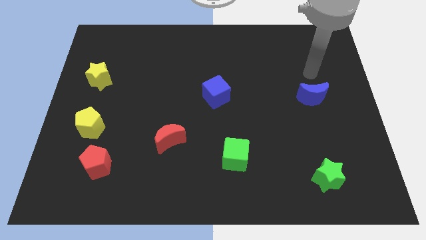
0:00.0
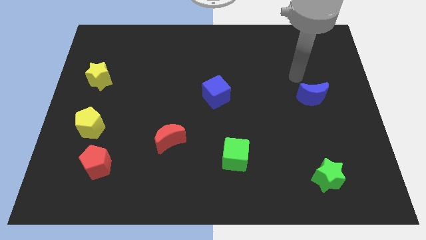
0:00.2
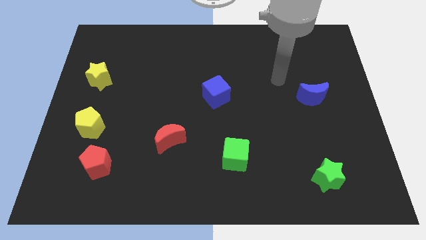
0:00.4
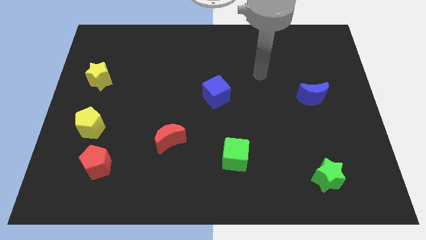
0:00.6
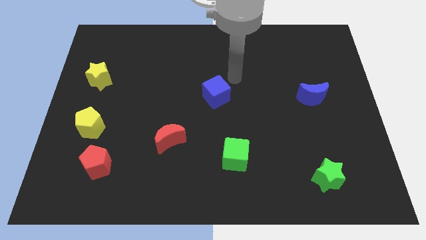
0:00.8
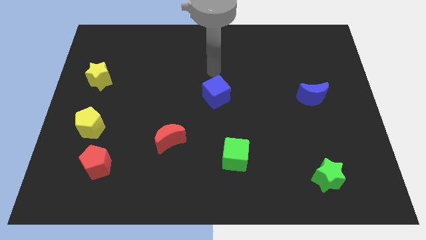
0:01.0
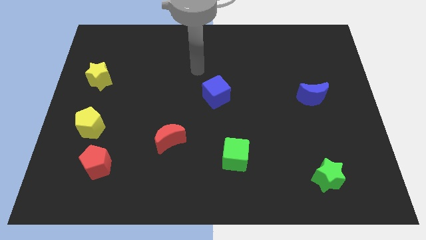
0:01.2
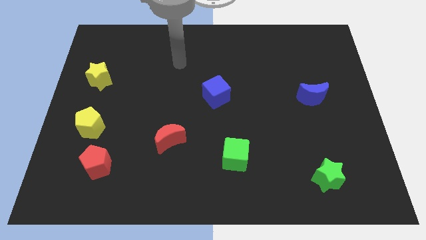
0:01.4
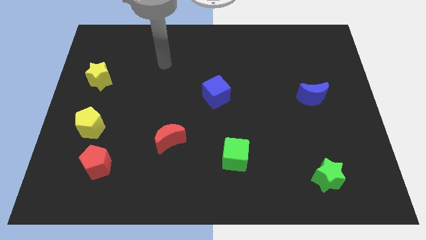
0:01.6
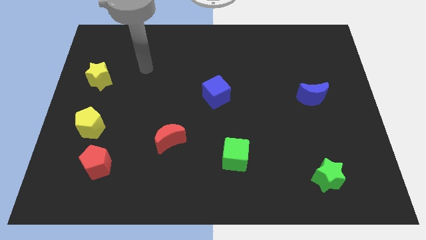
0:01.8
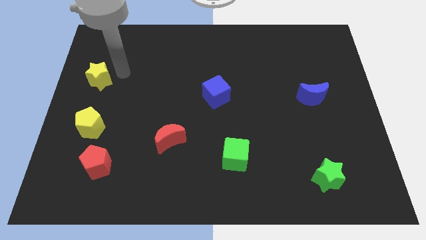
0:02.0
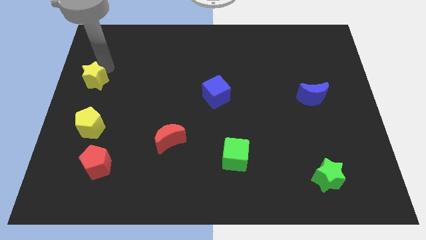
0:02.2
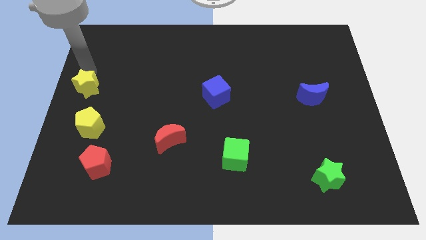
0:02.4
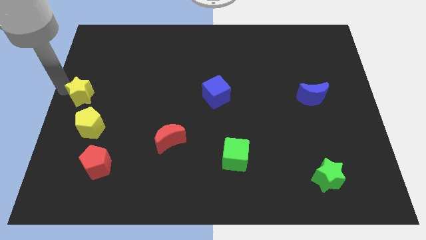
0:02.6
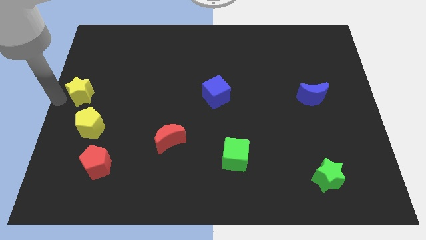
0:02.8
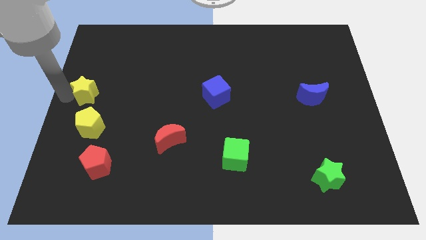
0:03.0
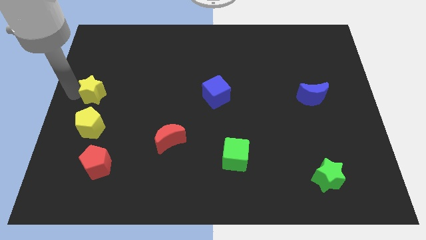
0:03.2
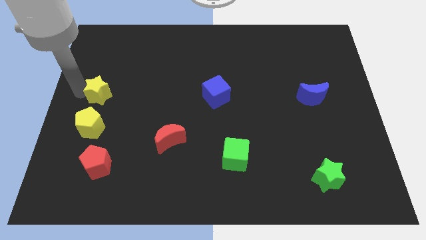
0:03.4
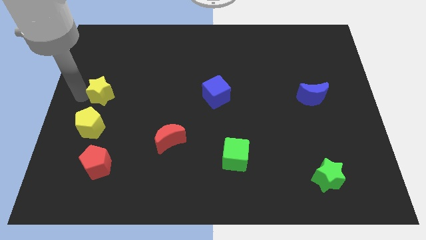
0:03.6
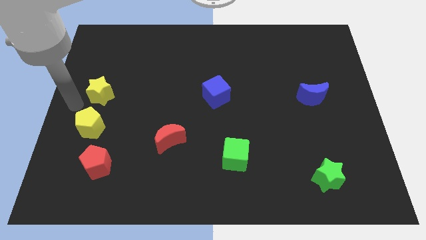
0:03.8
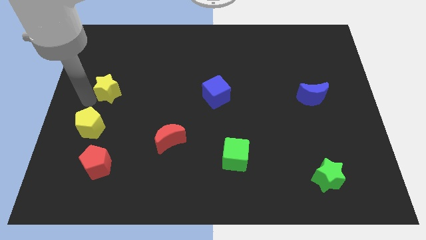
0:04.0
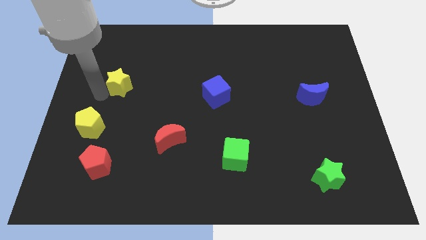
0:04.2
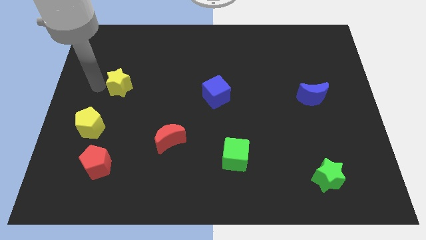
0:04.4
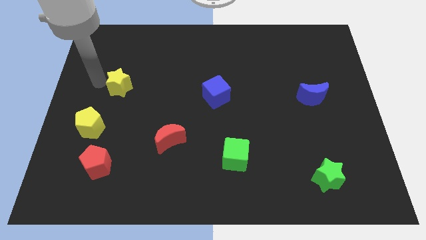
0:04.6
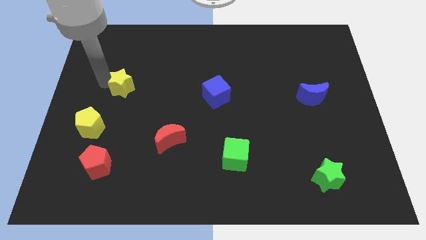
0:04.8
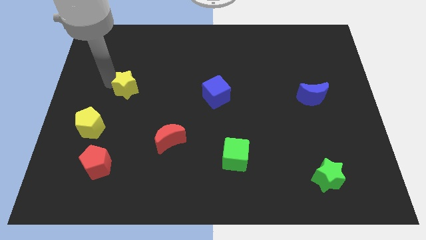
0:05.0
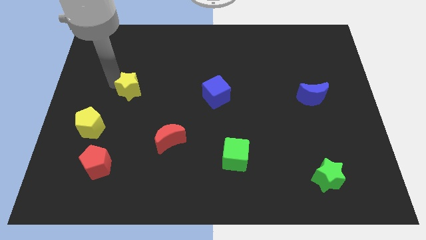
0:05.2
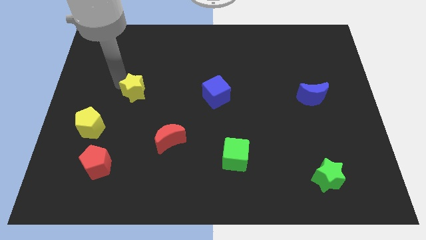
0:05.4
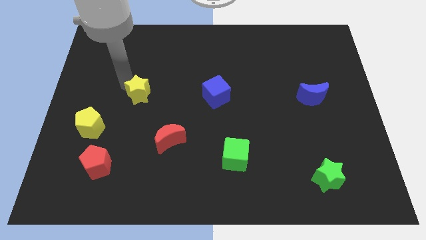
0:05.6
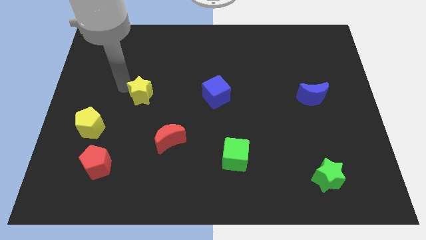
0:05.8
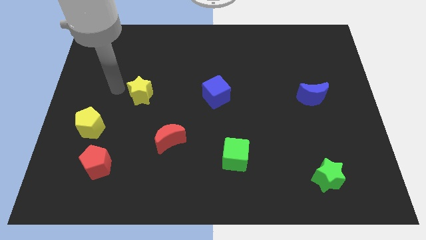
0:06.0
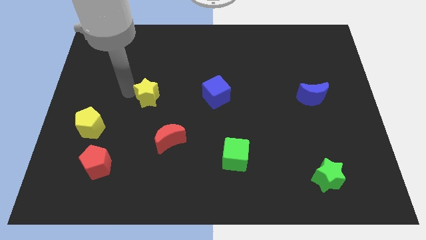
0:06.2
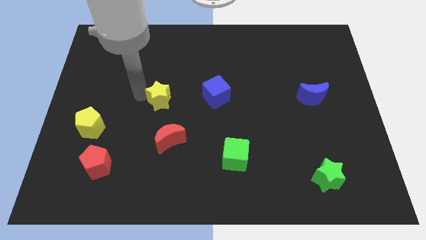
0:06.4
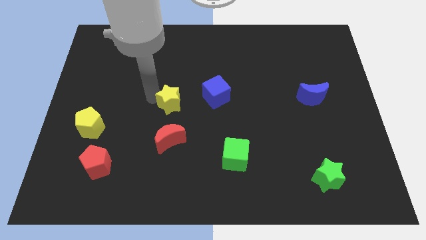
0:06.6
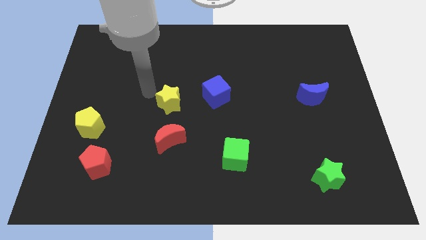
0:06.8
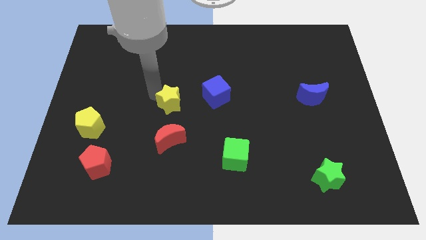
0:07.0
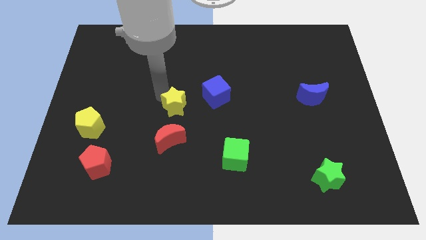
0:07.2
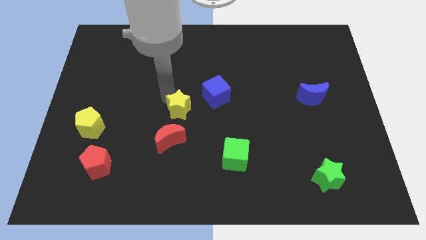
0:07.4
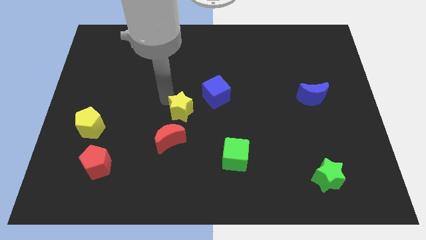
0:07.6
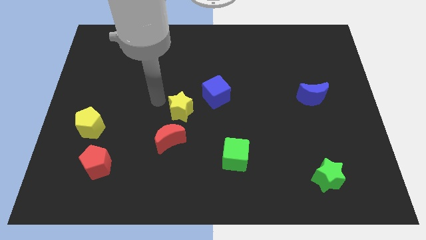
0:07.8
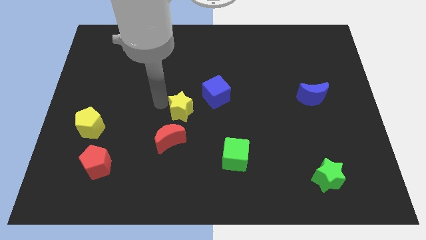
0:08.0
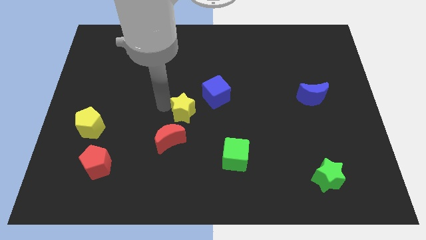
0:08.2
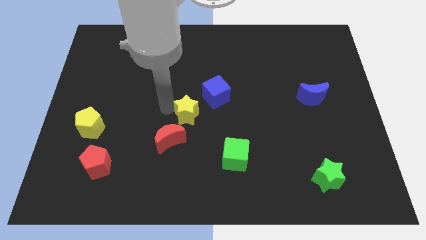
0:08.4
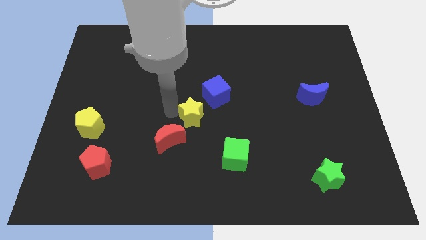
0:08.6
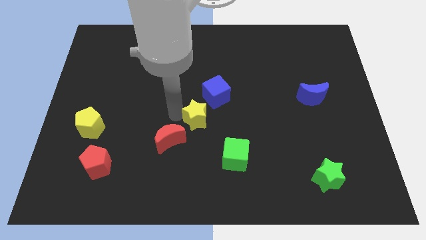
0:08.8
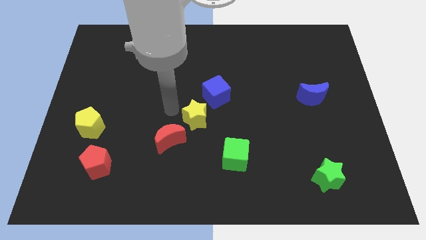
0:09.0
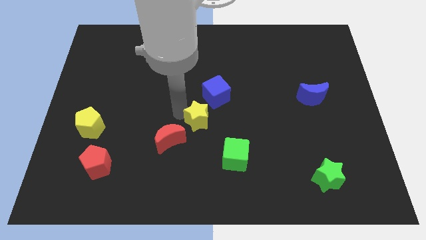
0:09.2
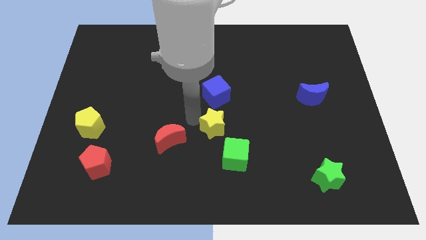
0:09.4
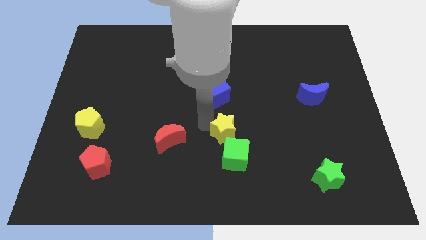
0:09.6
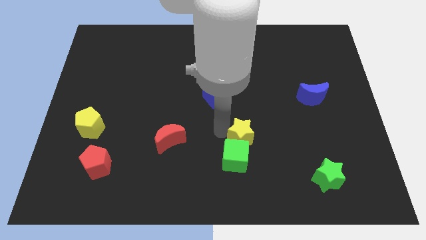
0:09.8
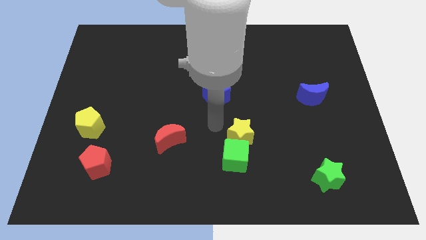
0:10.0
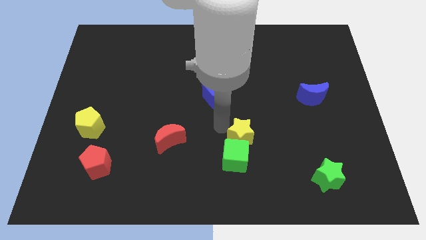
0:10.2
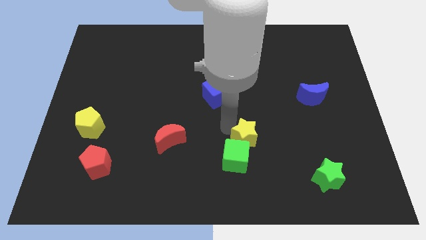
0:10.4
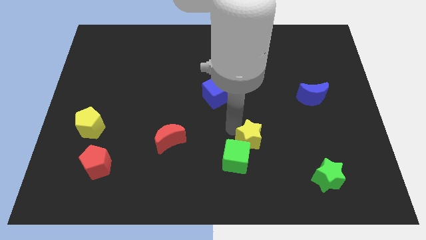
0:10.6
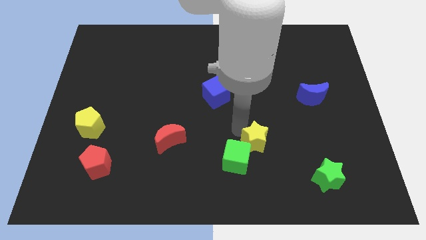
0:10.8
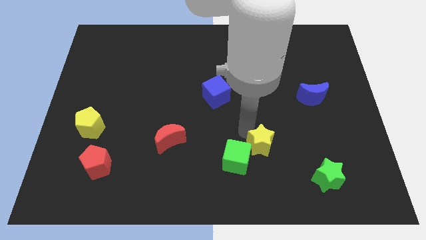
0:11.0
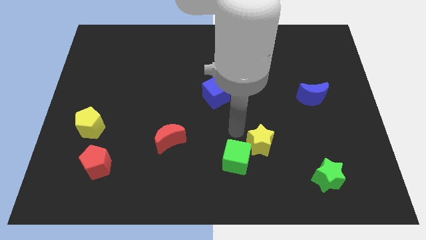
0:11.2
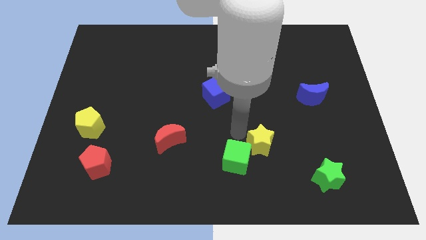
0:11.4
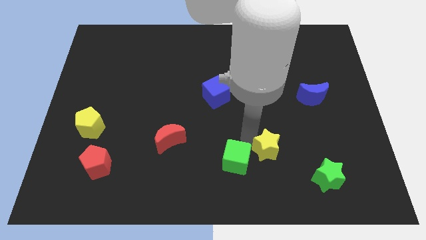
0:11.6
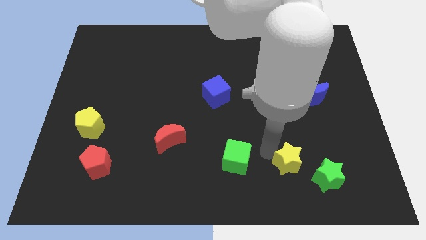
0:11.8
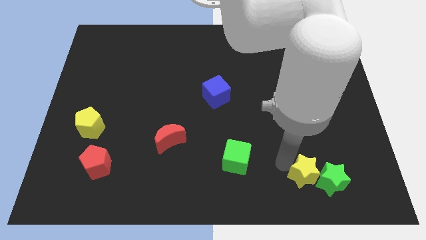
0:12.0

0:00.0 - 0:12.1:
slide the yellow star to the green star

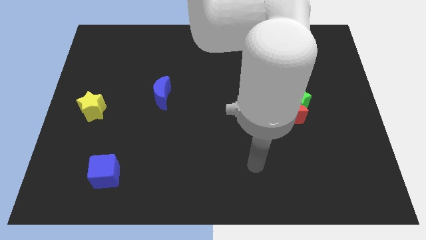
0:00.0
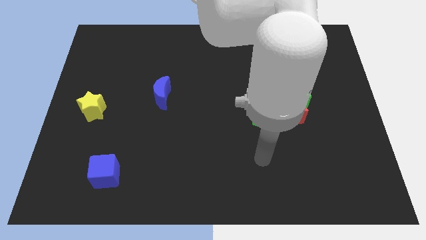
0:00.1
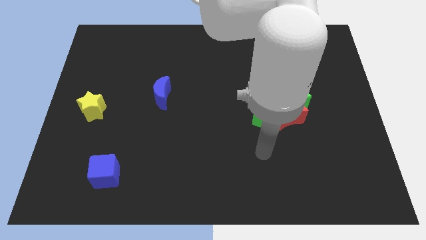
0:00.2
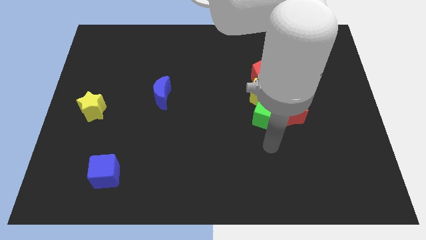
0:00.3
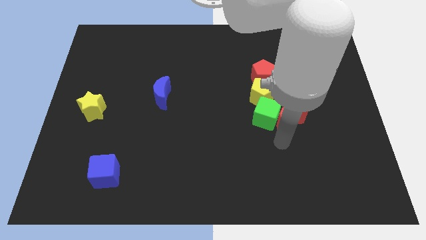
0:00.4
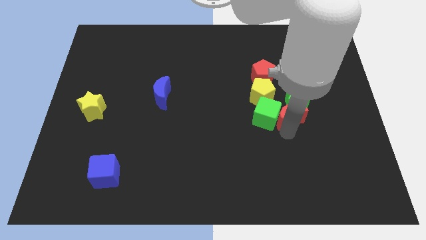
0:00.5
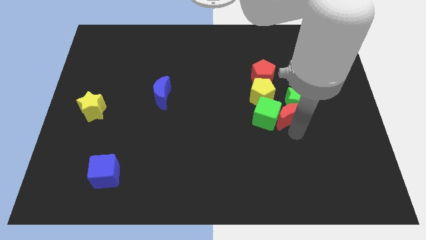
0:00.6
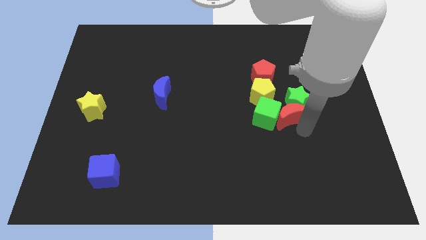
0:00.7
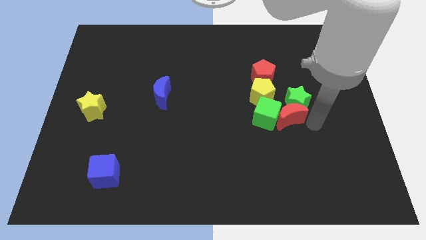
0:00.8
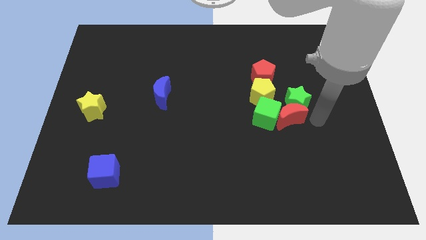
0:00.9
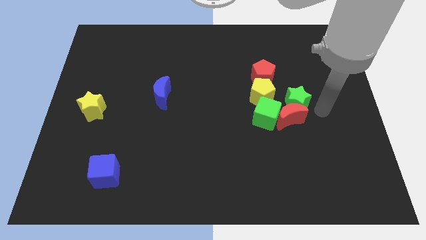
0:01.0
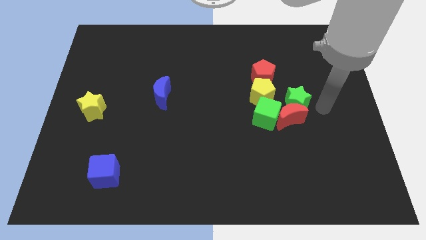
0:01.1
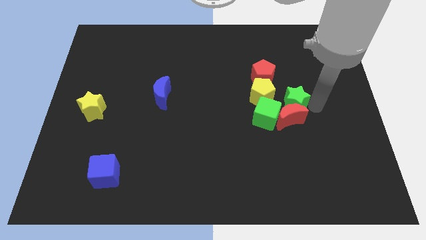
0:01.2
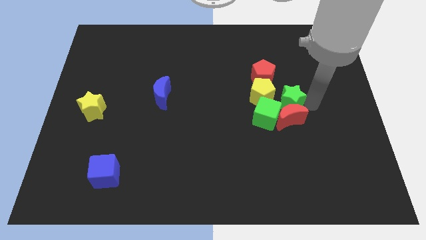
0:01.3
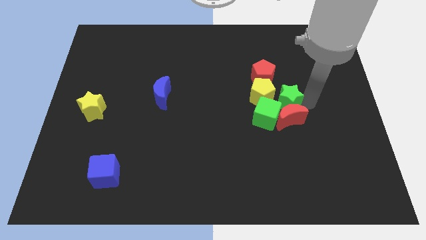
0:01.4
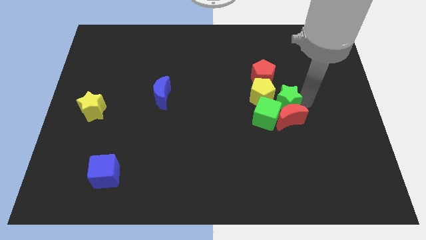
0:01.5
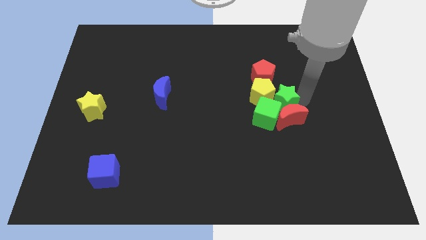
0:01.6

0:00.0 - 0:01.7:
put the green star next to the yellow pentagon
